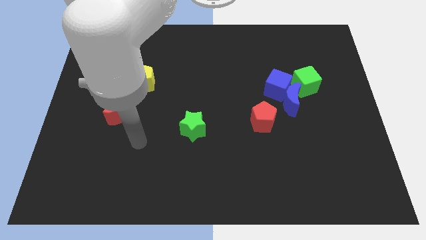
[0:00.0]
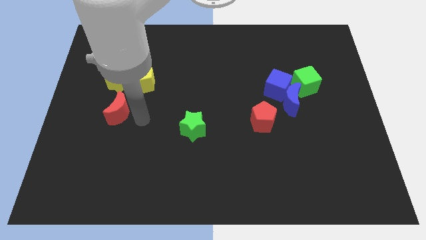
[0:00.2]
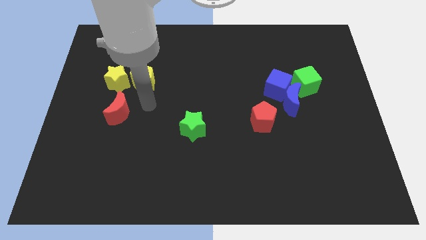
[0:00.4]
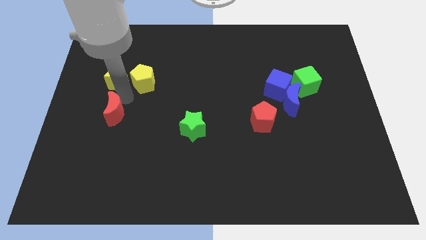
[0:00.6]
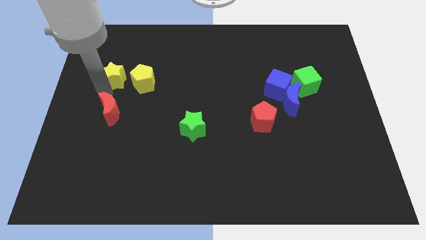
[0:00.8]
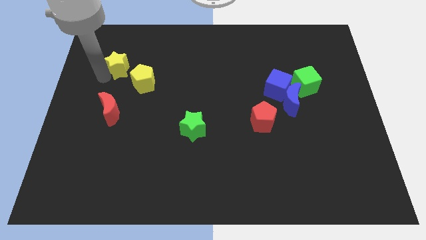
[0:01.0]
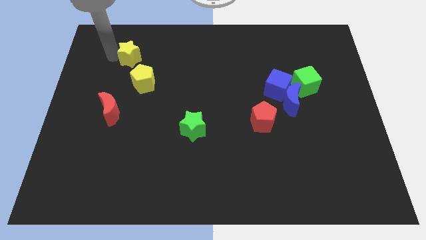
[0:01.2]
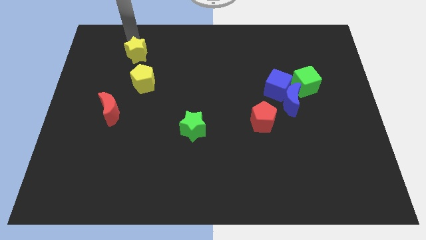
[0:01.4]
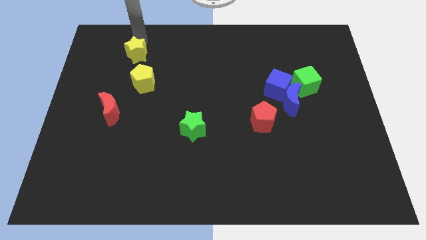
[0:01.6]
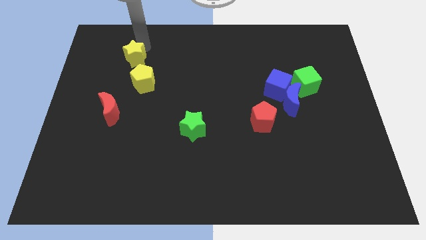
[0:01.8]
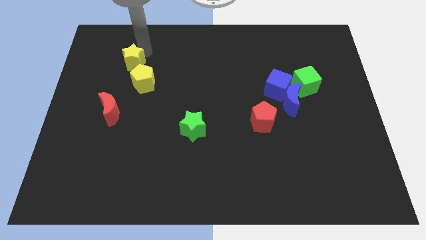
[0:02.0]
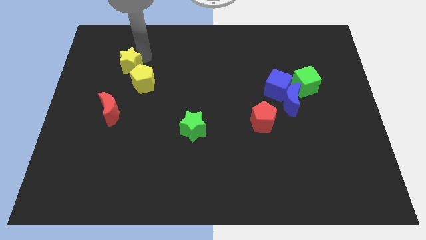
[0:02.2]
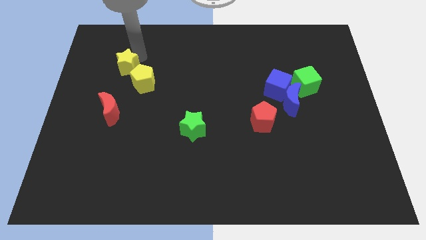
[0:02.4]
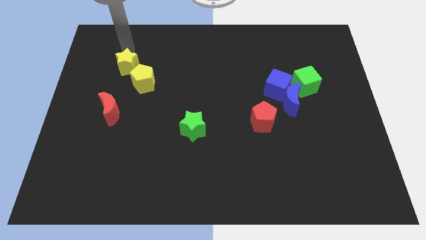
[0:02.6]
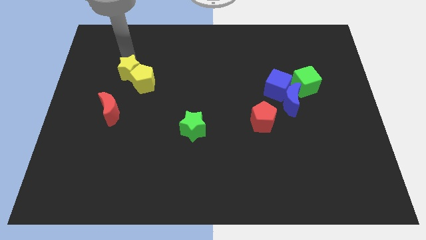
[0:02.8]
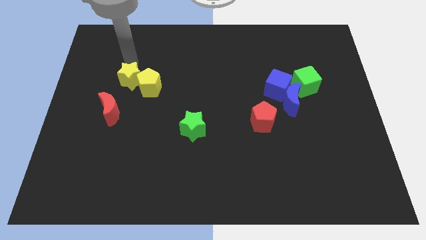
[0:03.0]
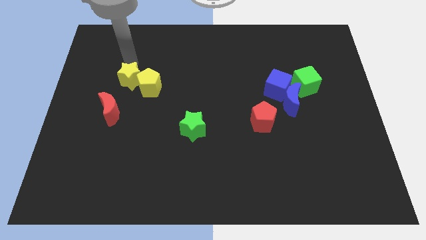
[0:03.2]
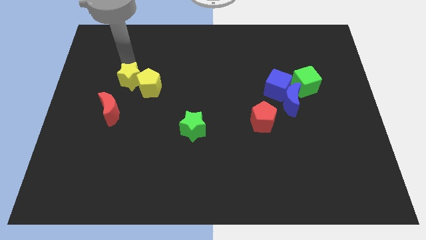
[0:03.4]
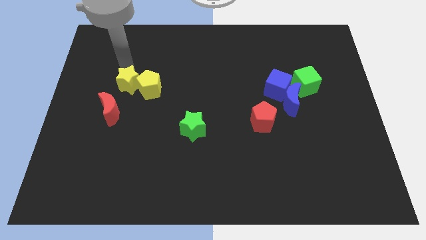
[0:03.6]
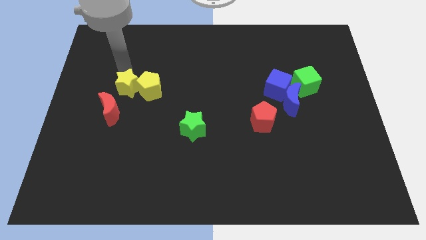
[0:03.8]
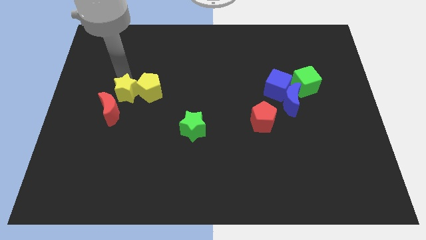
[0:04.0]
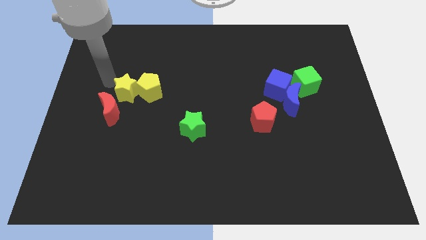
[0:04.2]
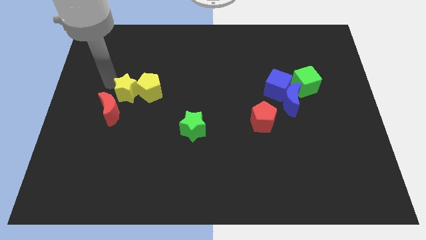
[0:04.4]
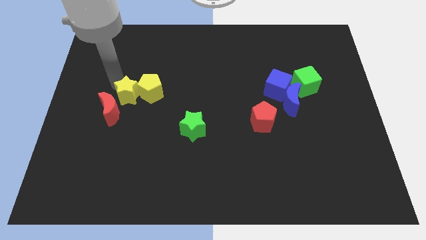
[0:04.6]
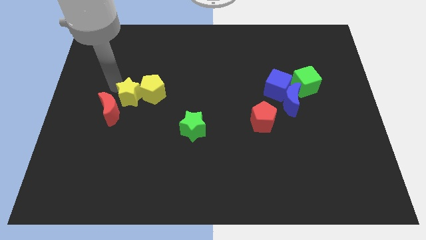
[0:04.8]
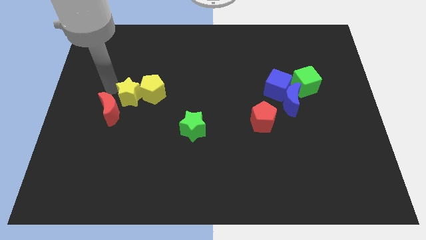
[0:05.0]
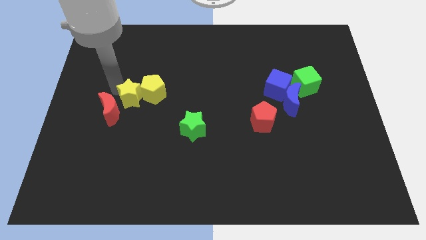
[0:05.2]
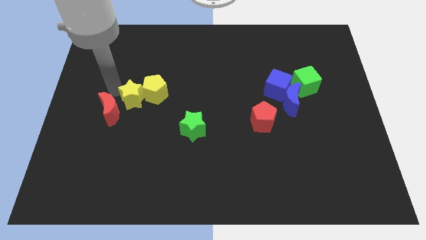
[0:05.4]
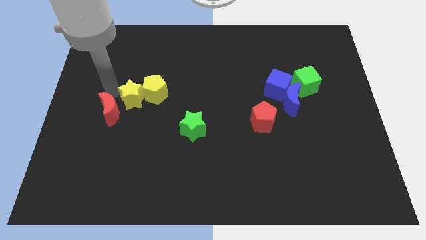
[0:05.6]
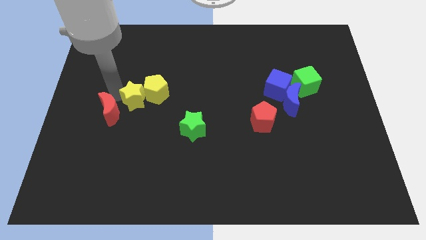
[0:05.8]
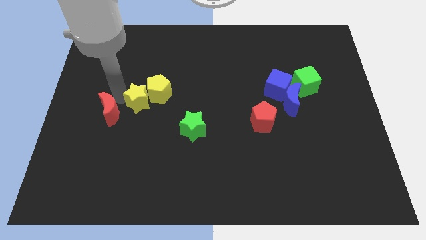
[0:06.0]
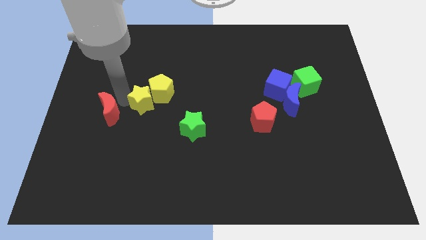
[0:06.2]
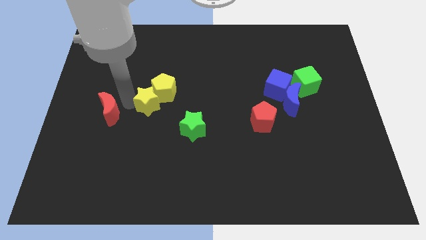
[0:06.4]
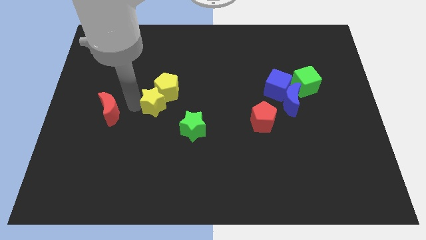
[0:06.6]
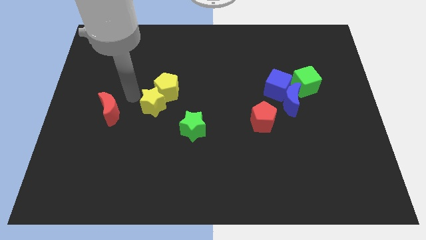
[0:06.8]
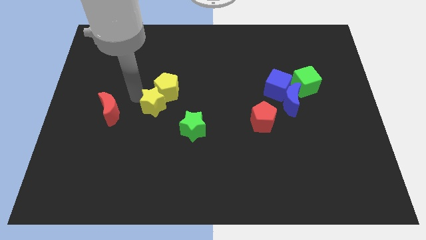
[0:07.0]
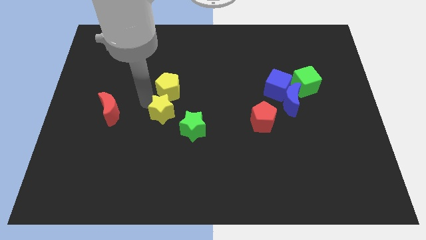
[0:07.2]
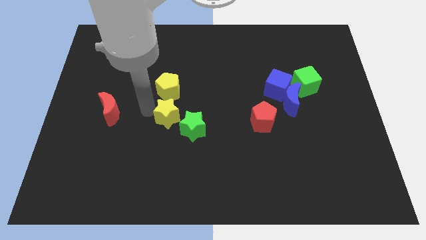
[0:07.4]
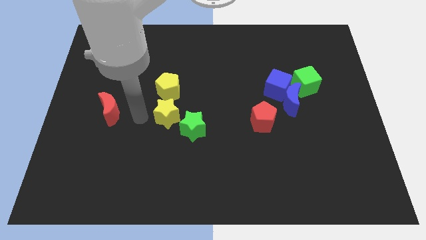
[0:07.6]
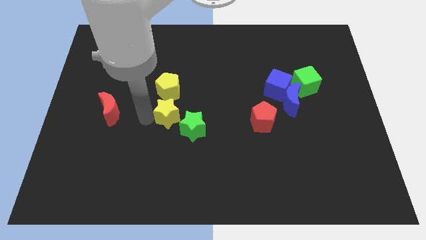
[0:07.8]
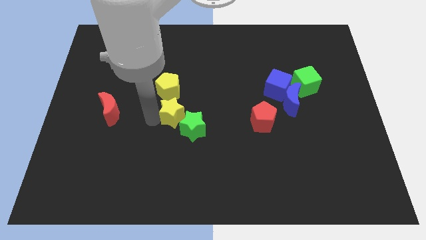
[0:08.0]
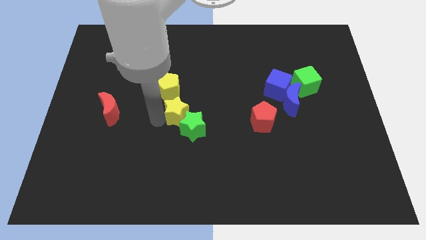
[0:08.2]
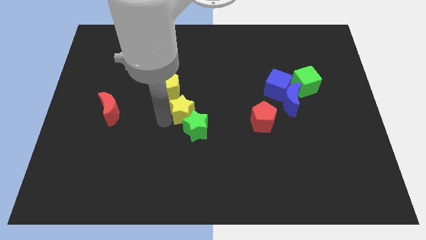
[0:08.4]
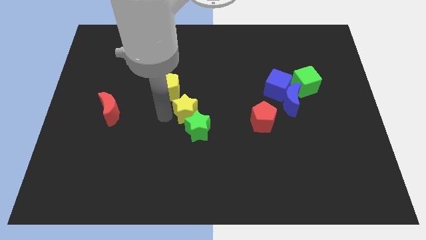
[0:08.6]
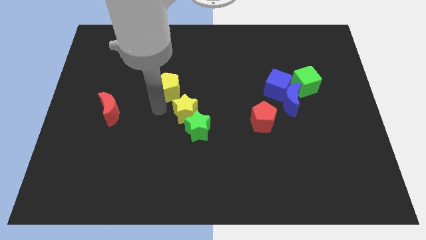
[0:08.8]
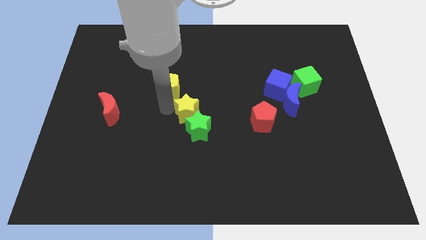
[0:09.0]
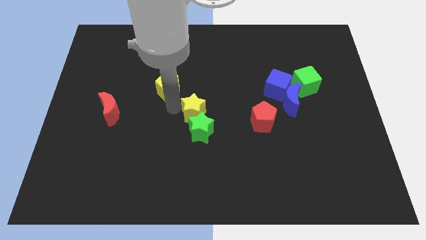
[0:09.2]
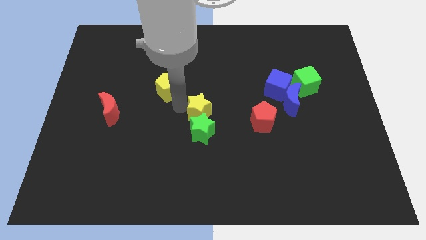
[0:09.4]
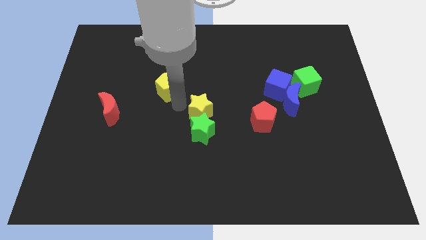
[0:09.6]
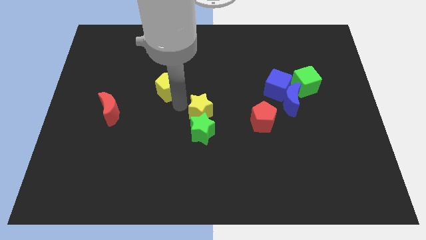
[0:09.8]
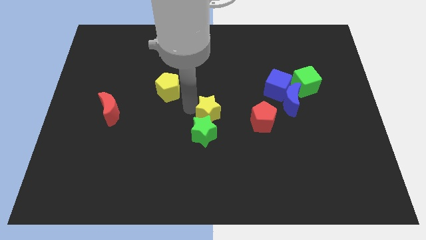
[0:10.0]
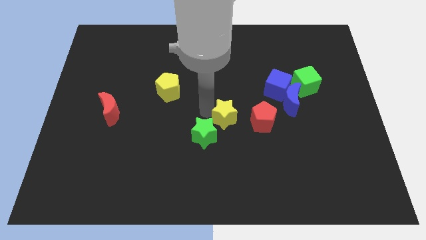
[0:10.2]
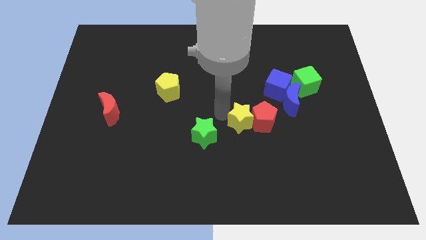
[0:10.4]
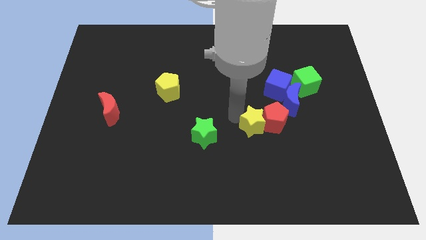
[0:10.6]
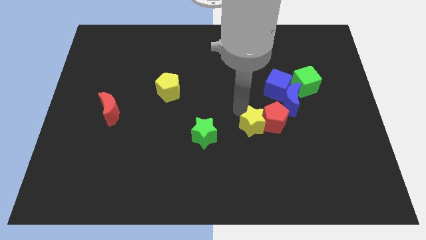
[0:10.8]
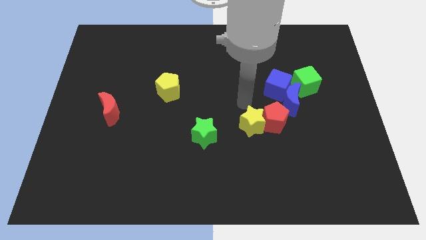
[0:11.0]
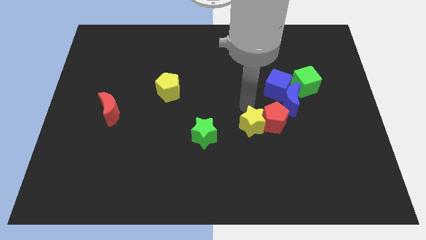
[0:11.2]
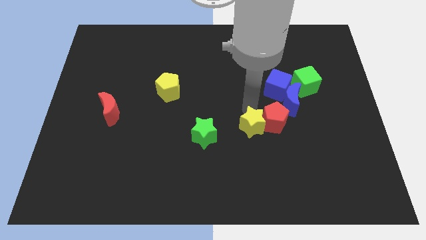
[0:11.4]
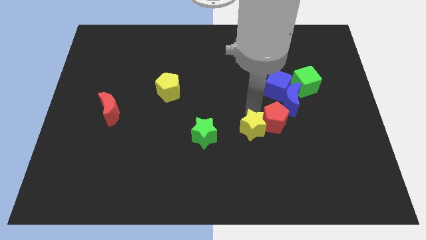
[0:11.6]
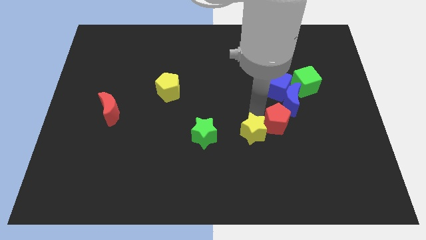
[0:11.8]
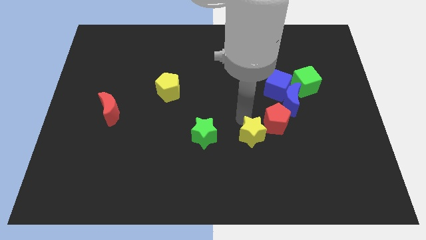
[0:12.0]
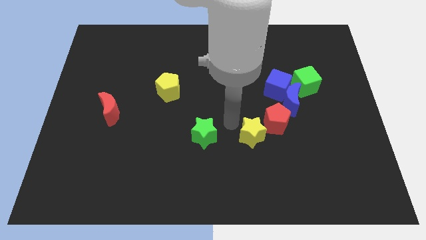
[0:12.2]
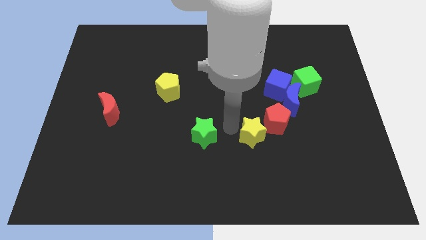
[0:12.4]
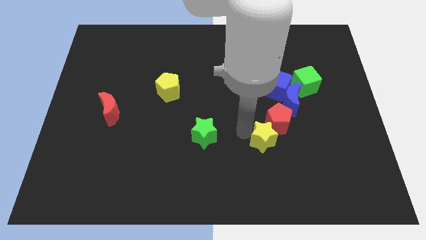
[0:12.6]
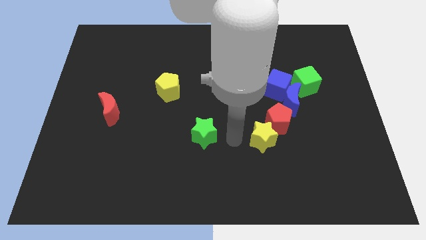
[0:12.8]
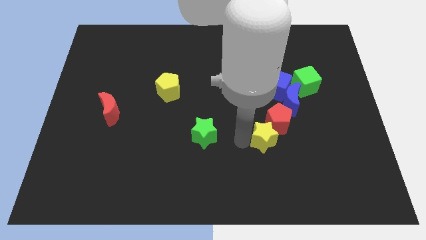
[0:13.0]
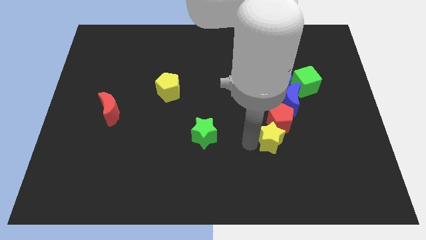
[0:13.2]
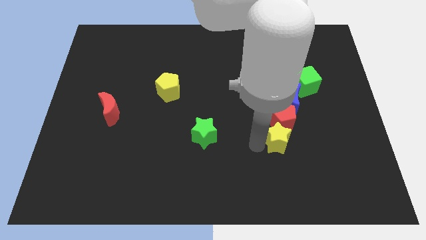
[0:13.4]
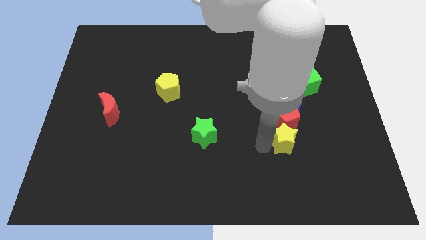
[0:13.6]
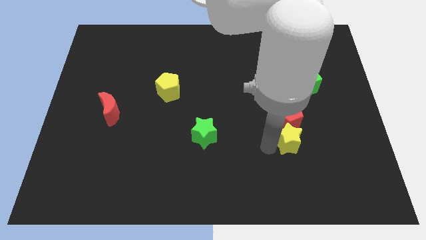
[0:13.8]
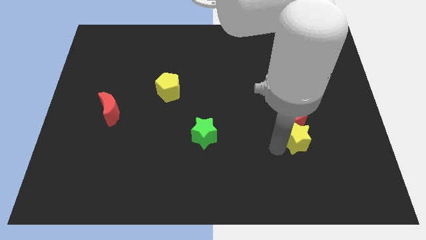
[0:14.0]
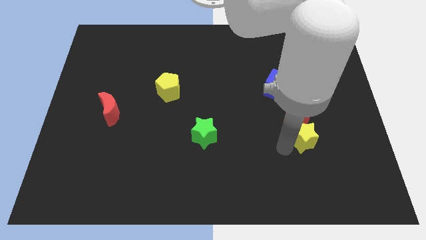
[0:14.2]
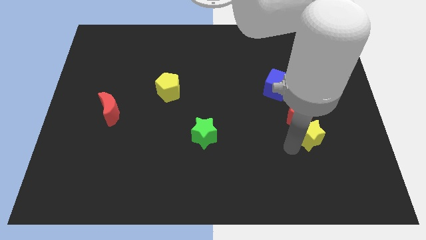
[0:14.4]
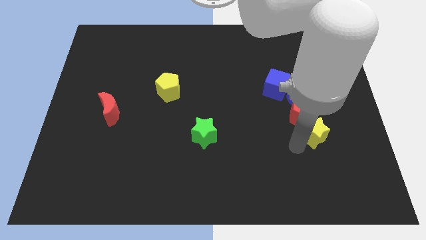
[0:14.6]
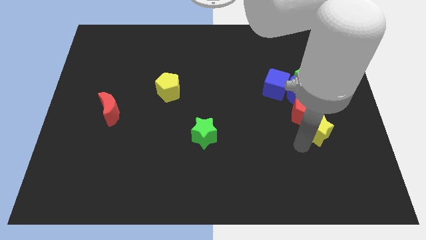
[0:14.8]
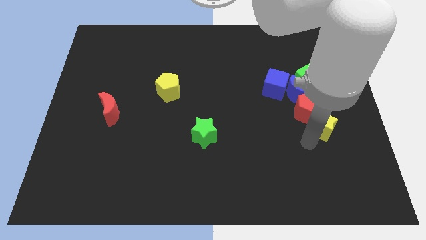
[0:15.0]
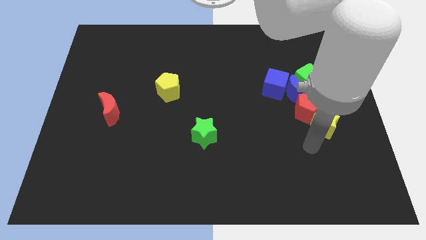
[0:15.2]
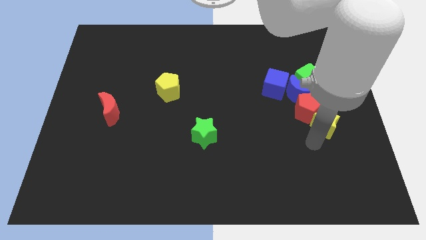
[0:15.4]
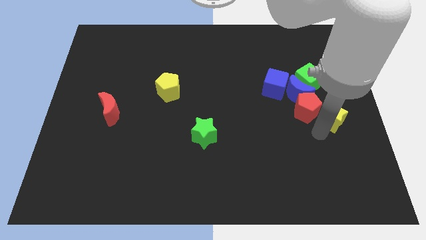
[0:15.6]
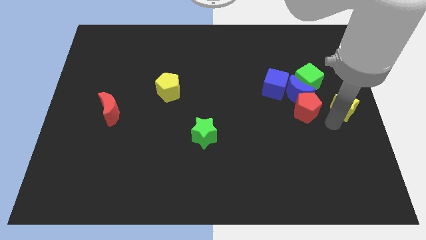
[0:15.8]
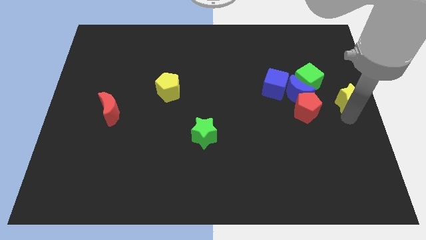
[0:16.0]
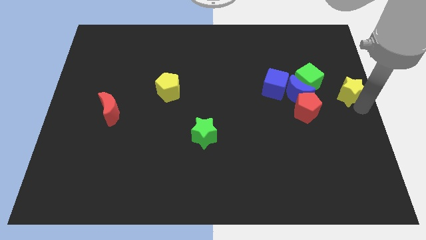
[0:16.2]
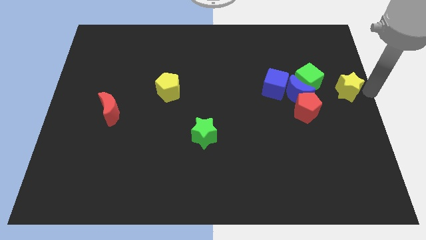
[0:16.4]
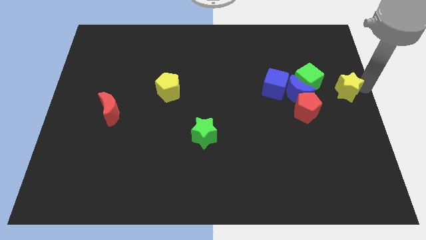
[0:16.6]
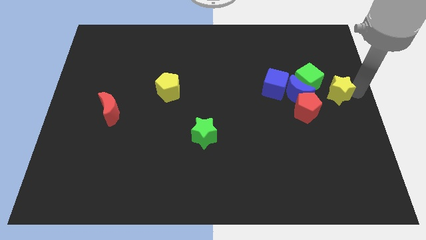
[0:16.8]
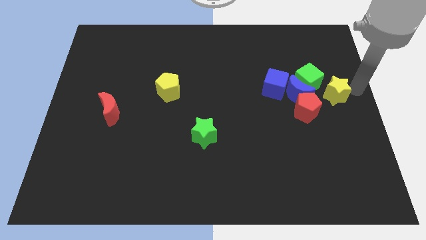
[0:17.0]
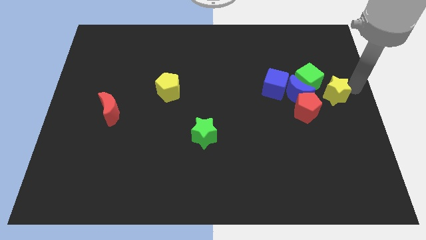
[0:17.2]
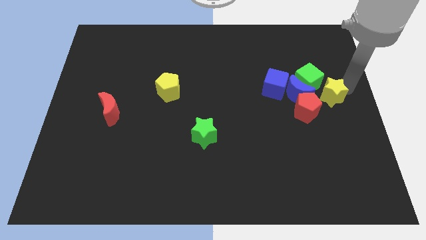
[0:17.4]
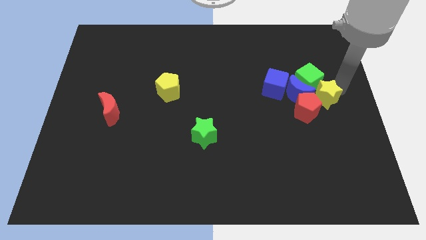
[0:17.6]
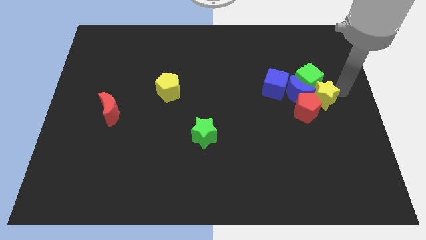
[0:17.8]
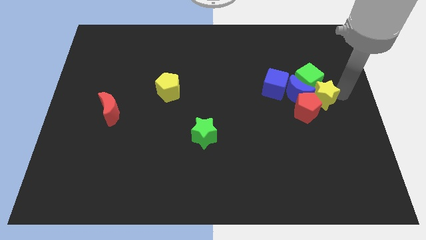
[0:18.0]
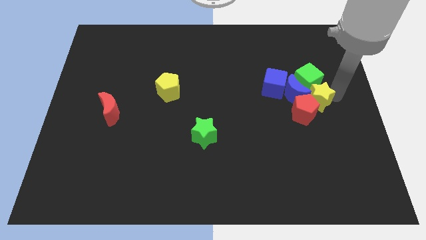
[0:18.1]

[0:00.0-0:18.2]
slide the yellow star to the bottom right side of the blue cube
